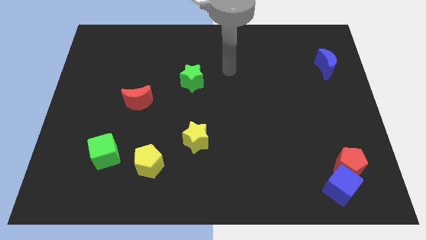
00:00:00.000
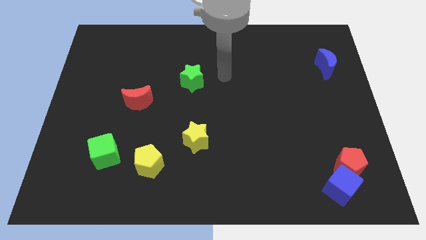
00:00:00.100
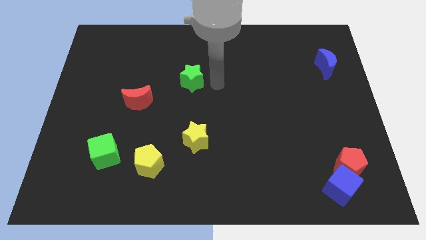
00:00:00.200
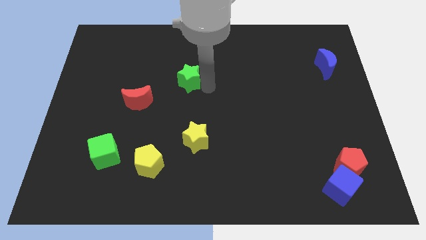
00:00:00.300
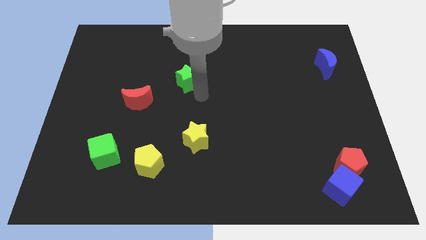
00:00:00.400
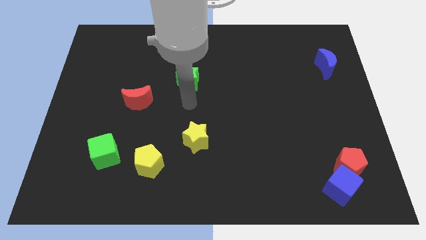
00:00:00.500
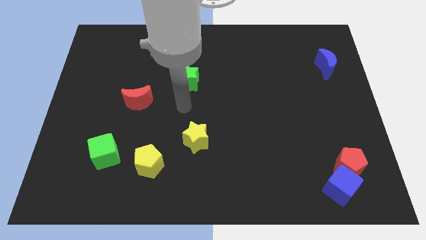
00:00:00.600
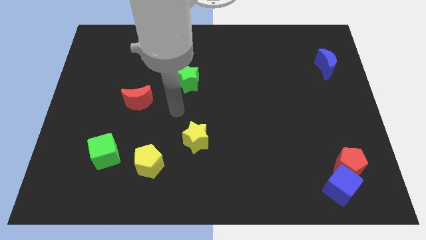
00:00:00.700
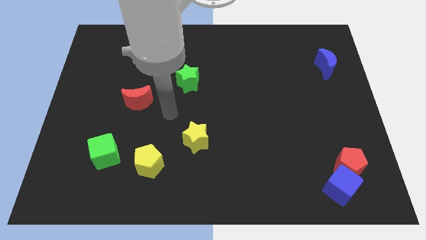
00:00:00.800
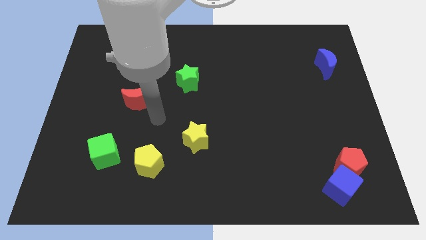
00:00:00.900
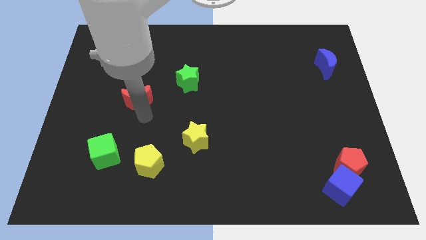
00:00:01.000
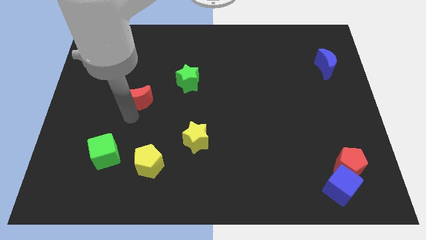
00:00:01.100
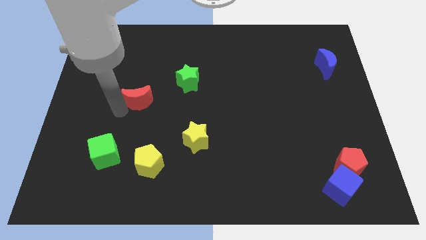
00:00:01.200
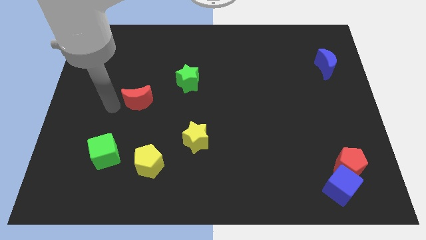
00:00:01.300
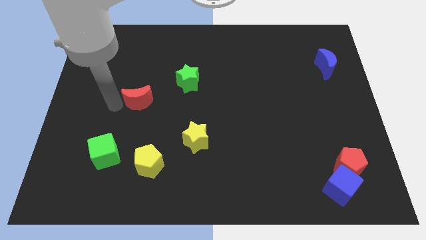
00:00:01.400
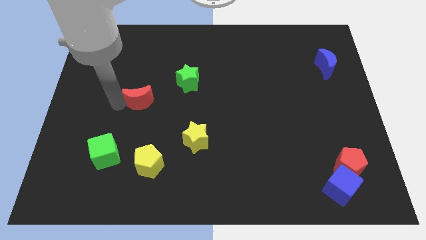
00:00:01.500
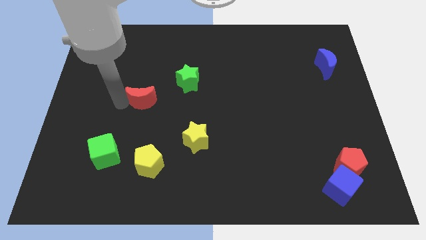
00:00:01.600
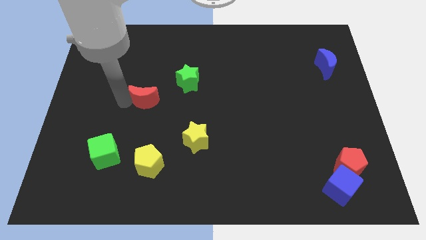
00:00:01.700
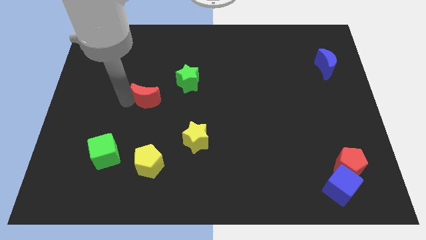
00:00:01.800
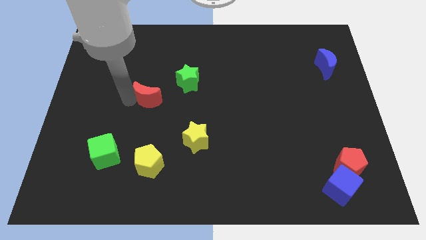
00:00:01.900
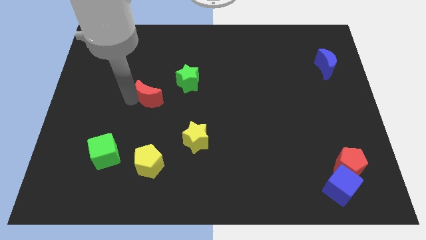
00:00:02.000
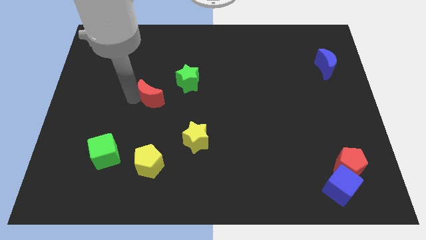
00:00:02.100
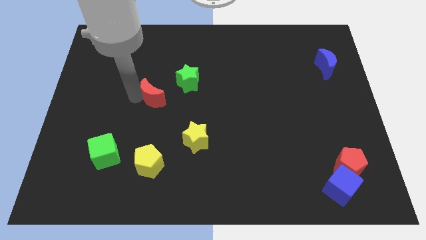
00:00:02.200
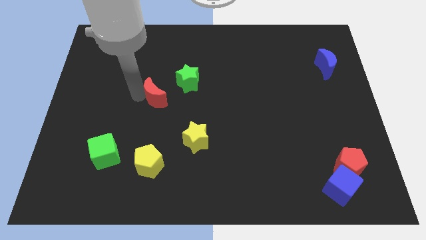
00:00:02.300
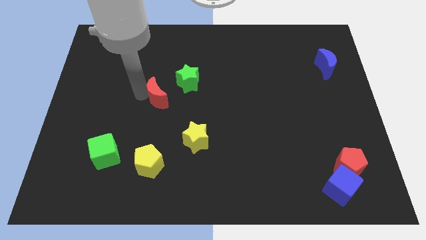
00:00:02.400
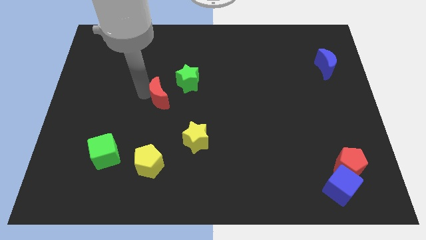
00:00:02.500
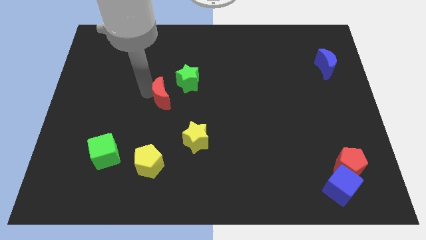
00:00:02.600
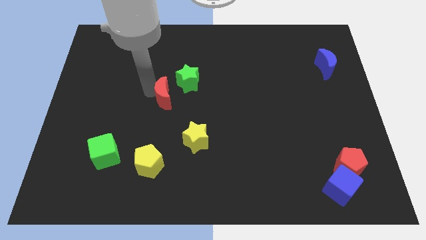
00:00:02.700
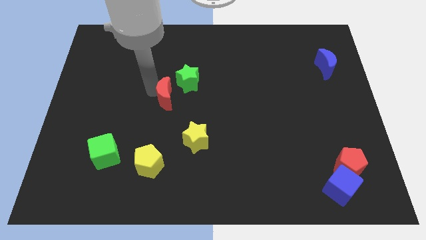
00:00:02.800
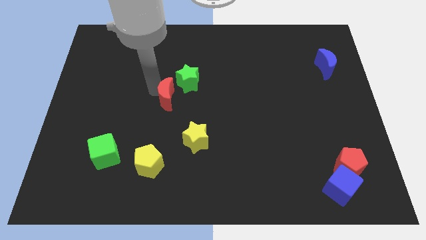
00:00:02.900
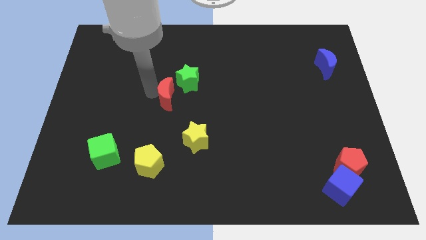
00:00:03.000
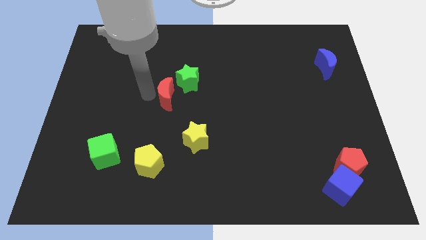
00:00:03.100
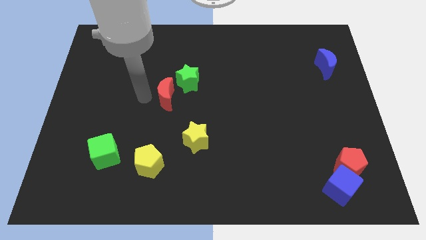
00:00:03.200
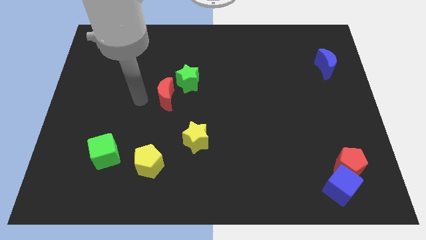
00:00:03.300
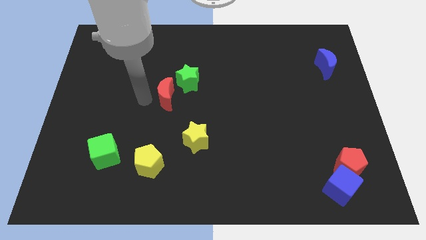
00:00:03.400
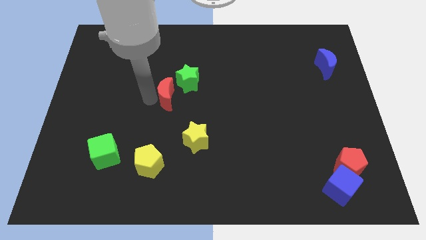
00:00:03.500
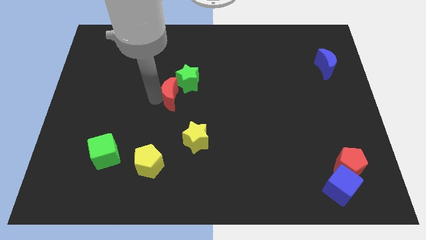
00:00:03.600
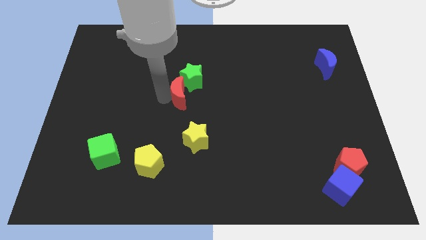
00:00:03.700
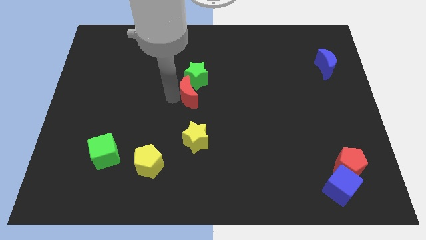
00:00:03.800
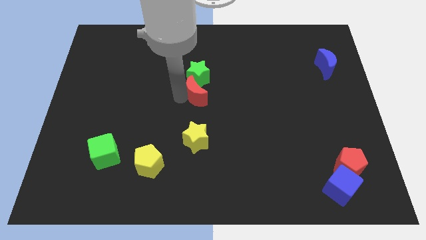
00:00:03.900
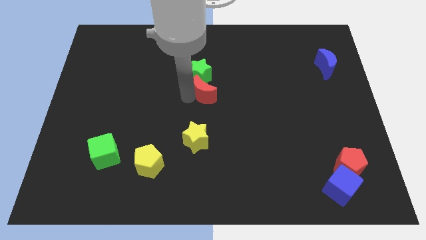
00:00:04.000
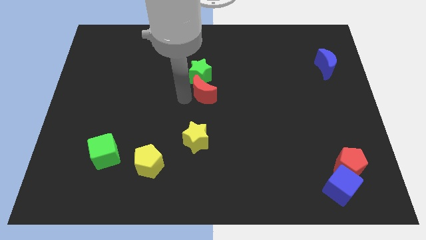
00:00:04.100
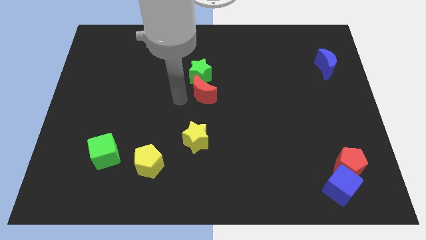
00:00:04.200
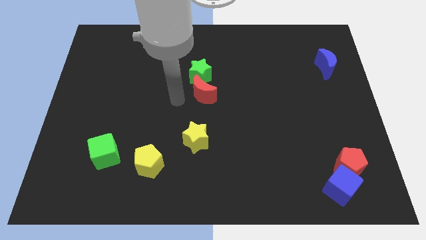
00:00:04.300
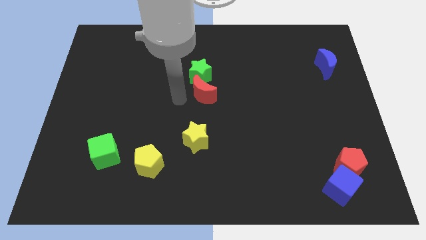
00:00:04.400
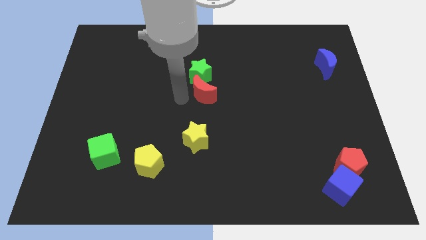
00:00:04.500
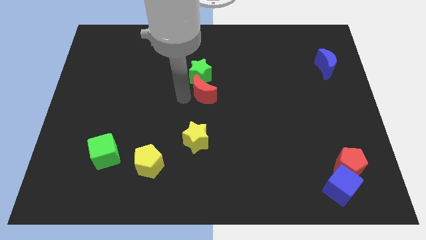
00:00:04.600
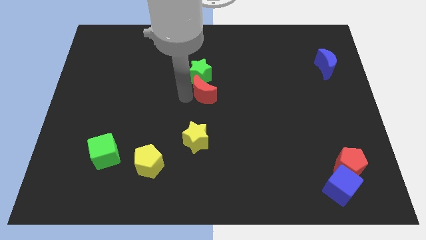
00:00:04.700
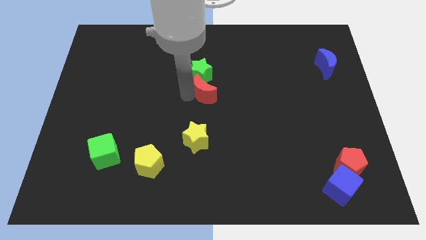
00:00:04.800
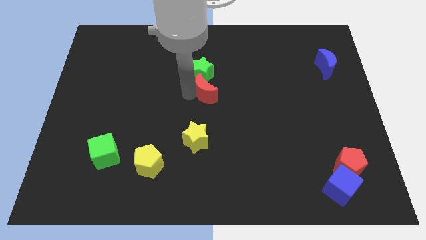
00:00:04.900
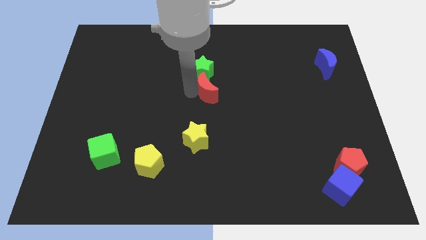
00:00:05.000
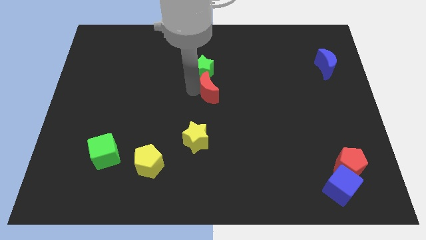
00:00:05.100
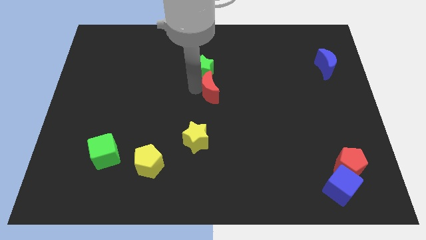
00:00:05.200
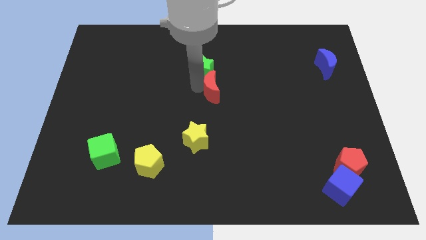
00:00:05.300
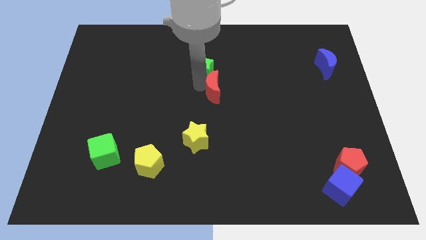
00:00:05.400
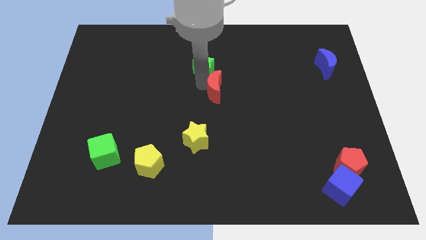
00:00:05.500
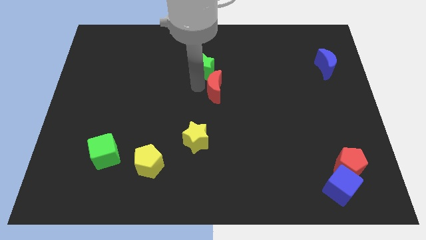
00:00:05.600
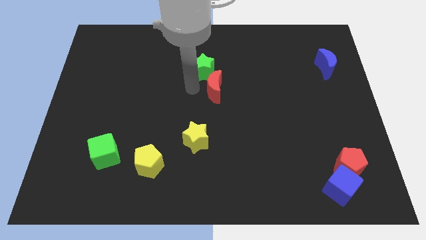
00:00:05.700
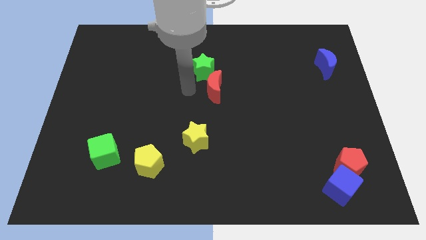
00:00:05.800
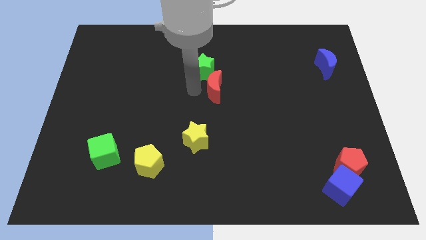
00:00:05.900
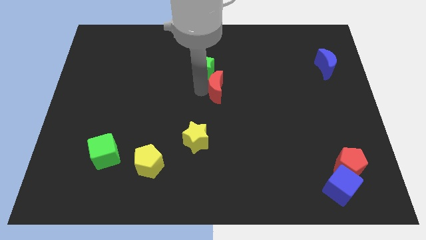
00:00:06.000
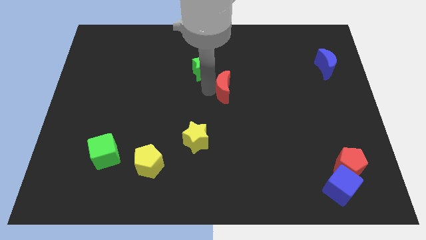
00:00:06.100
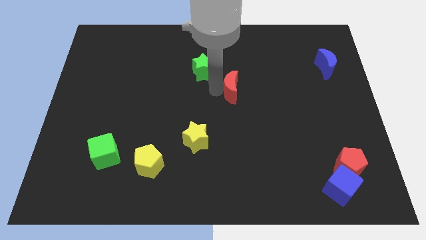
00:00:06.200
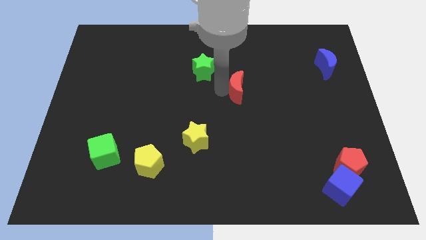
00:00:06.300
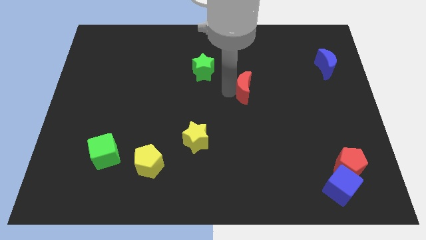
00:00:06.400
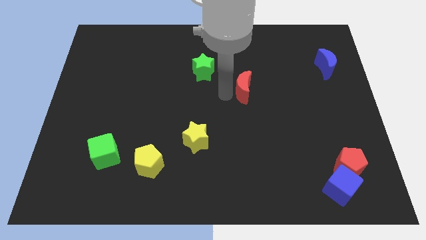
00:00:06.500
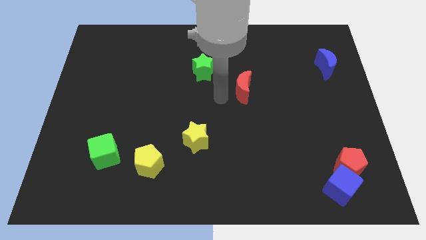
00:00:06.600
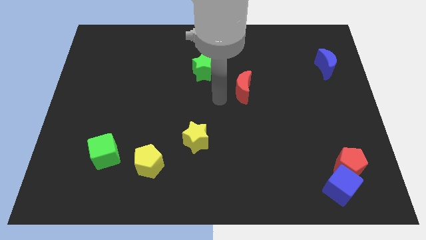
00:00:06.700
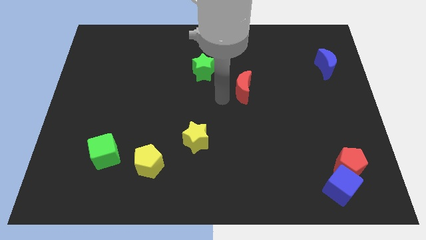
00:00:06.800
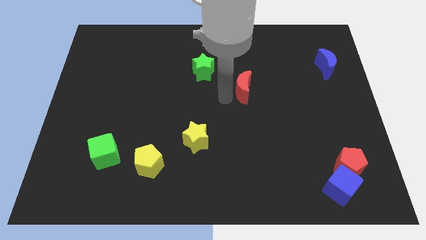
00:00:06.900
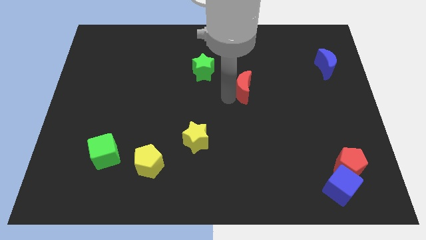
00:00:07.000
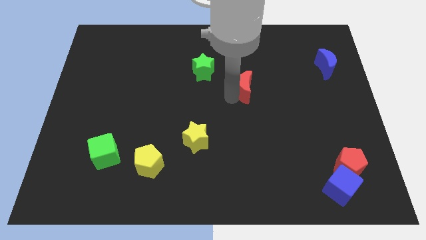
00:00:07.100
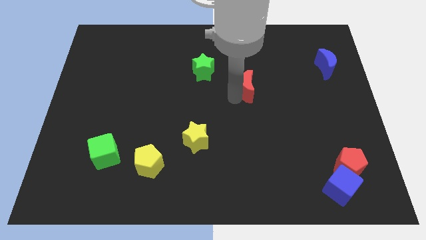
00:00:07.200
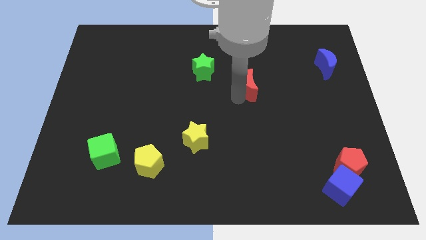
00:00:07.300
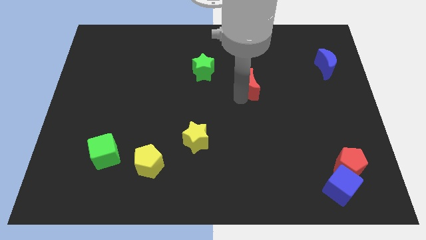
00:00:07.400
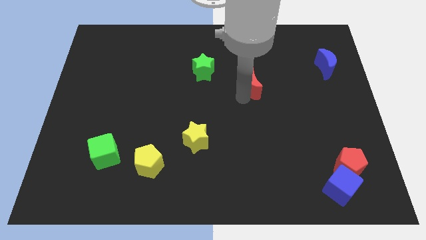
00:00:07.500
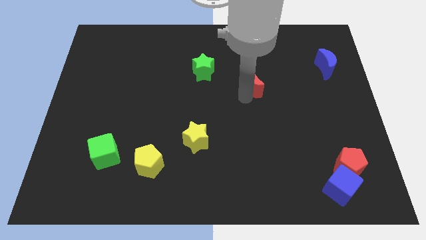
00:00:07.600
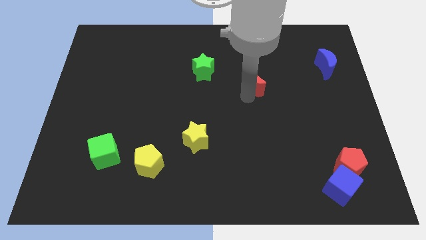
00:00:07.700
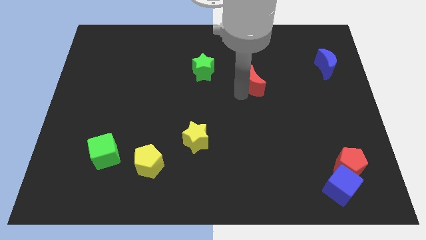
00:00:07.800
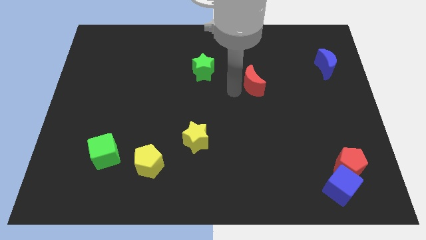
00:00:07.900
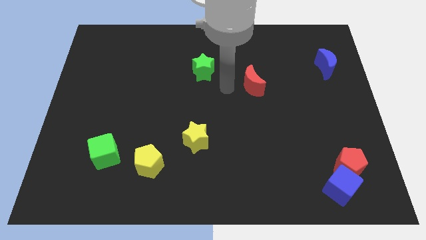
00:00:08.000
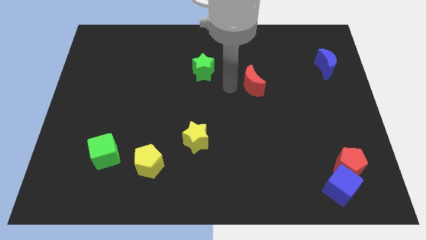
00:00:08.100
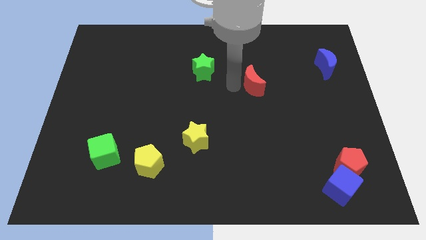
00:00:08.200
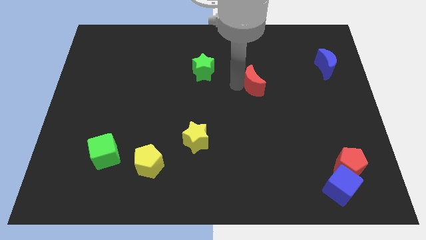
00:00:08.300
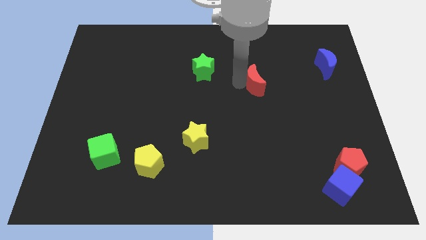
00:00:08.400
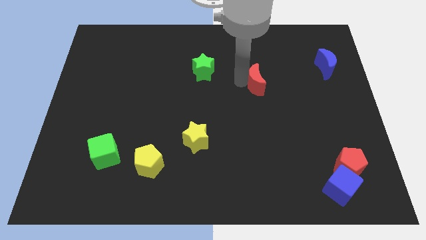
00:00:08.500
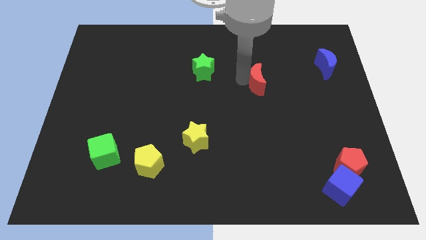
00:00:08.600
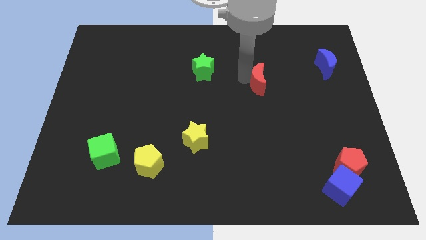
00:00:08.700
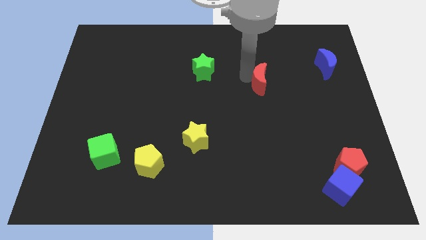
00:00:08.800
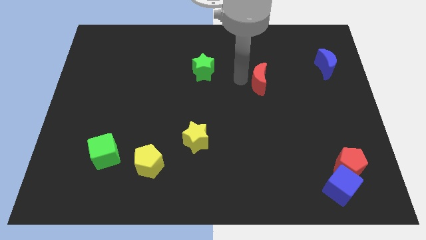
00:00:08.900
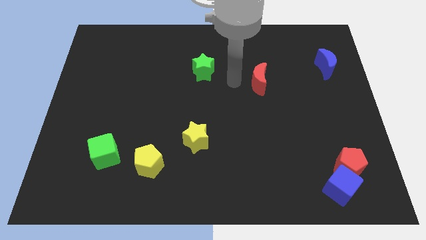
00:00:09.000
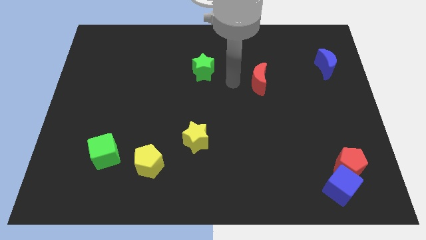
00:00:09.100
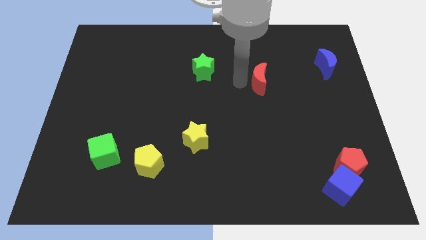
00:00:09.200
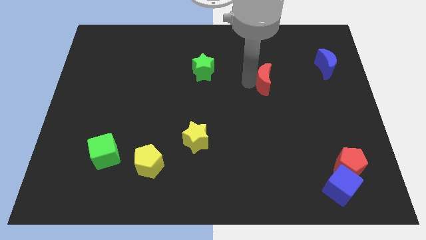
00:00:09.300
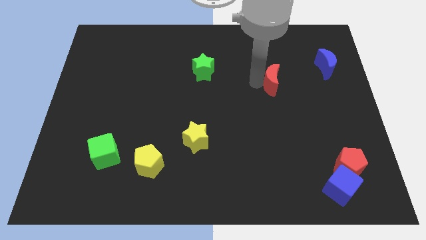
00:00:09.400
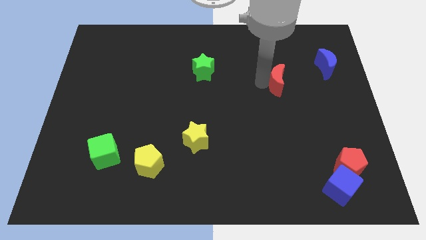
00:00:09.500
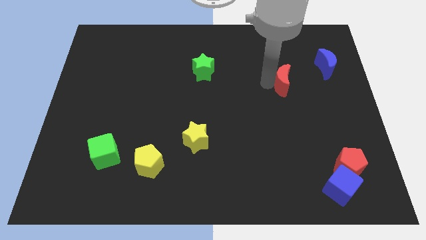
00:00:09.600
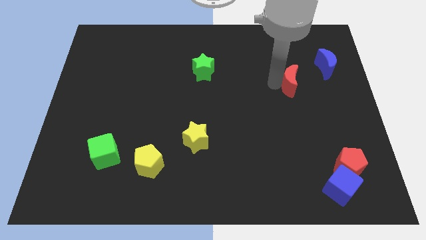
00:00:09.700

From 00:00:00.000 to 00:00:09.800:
push the red moon to the bottom left of the blue moon
